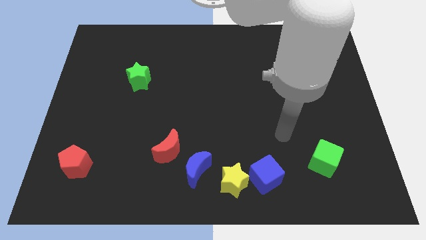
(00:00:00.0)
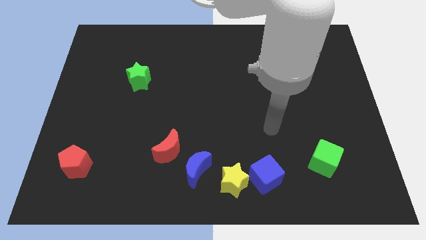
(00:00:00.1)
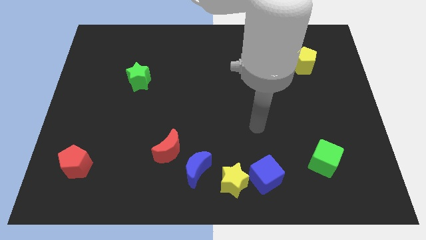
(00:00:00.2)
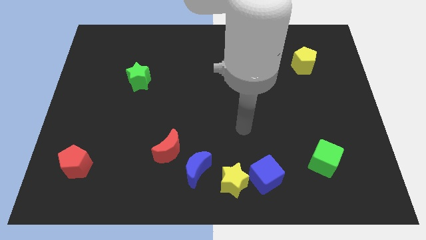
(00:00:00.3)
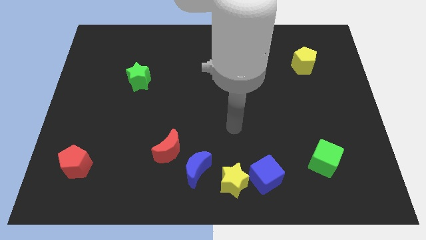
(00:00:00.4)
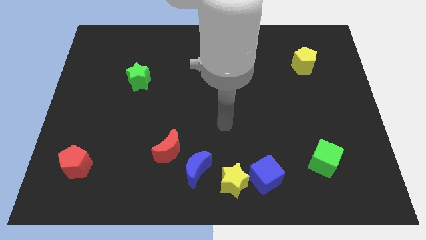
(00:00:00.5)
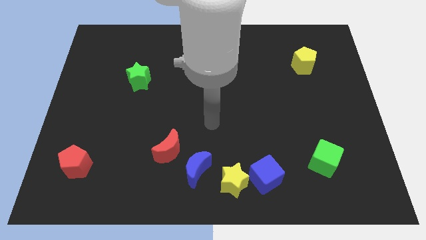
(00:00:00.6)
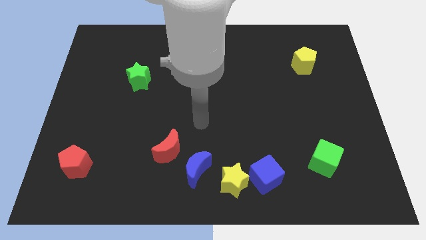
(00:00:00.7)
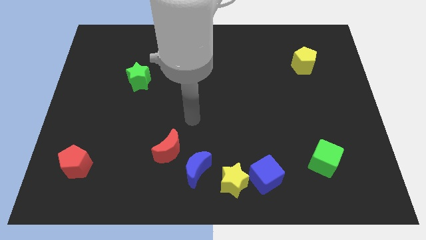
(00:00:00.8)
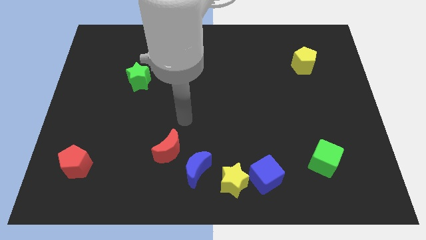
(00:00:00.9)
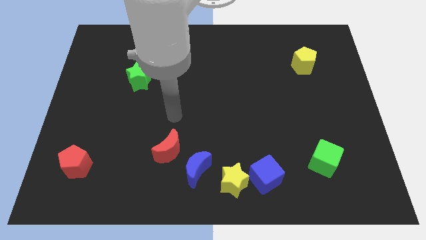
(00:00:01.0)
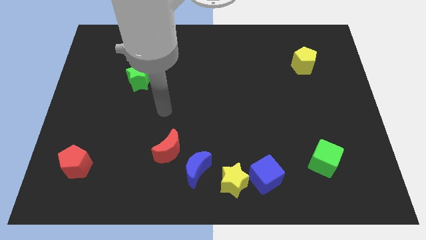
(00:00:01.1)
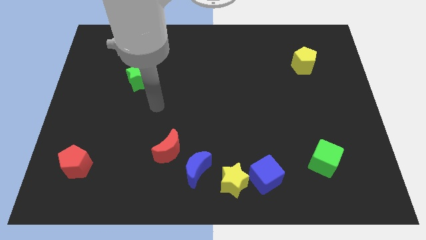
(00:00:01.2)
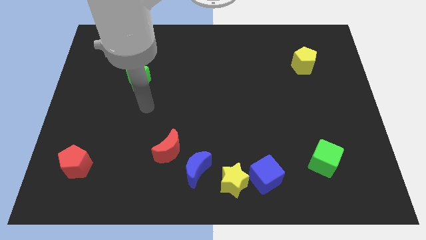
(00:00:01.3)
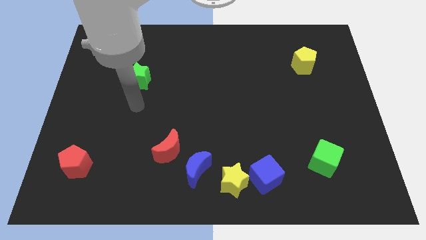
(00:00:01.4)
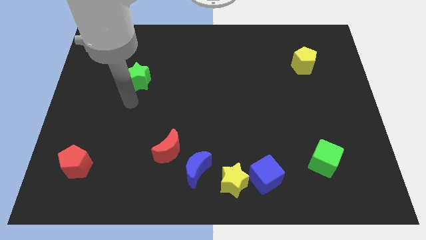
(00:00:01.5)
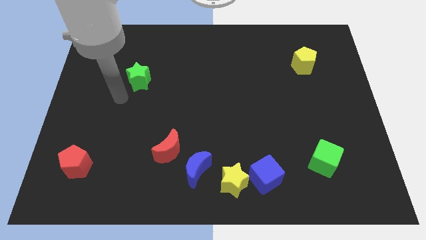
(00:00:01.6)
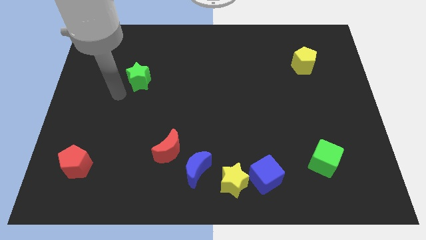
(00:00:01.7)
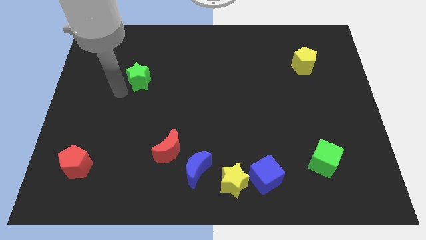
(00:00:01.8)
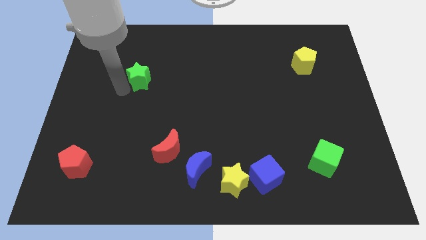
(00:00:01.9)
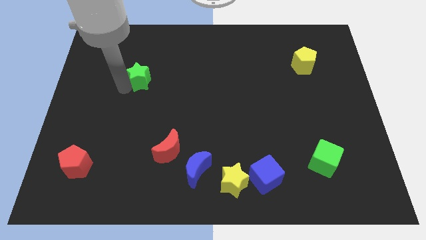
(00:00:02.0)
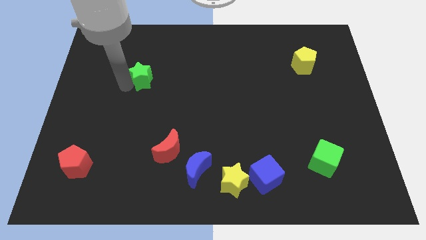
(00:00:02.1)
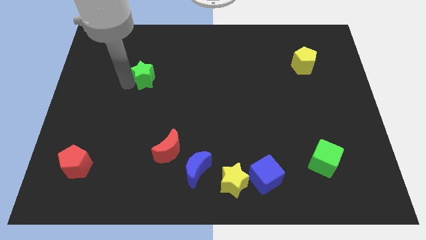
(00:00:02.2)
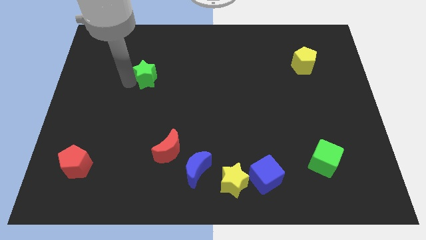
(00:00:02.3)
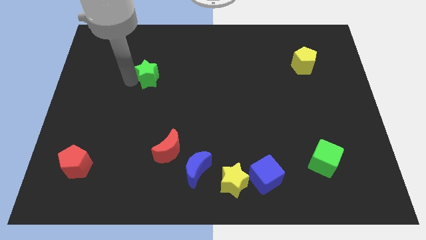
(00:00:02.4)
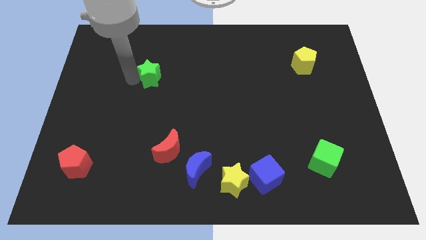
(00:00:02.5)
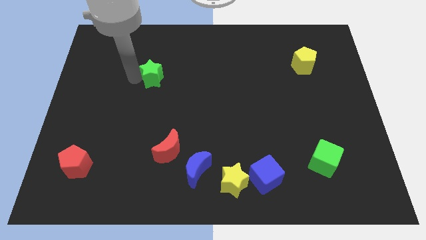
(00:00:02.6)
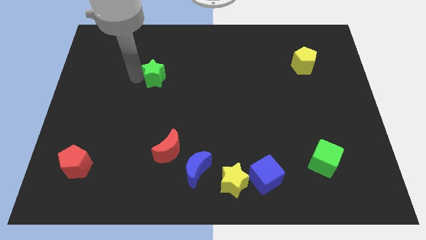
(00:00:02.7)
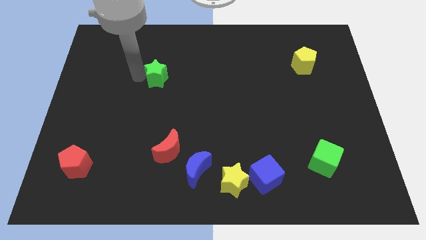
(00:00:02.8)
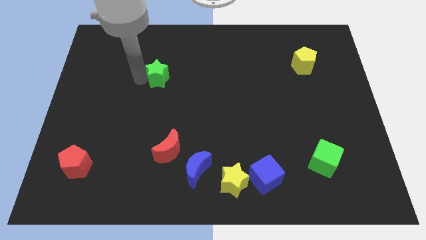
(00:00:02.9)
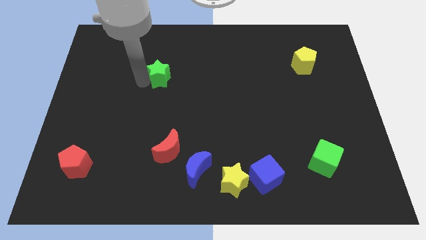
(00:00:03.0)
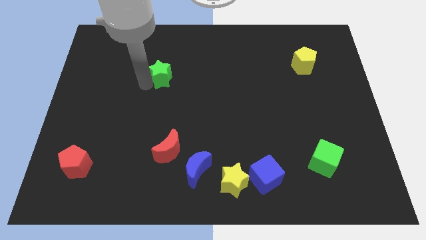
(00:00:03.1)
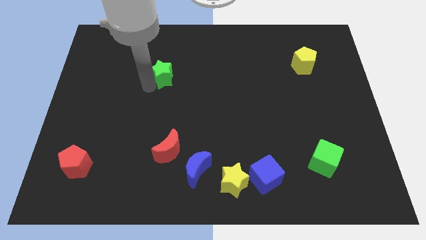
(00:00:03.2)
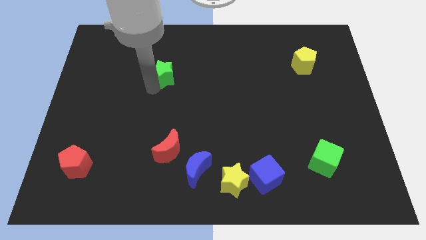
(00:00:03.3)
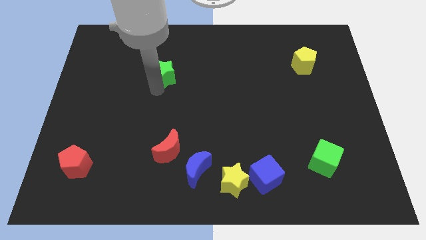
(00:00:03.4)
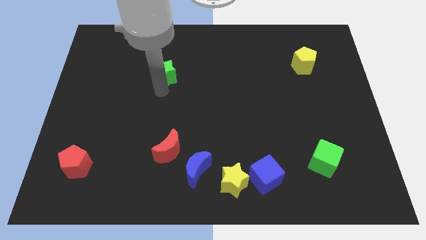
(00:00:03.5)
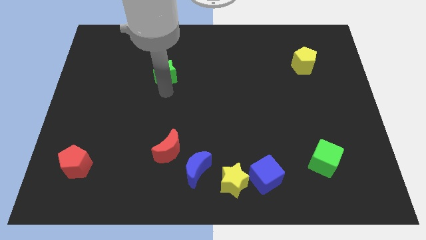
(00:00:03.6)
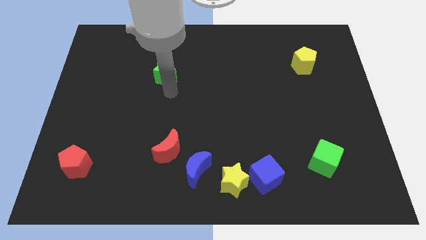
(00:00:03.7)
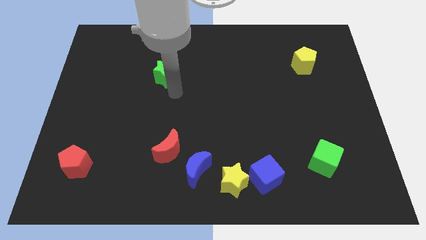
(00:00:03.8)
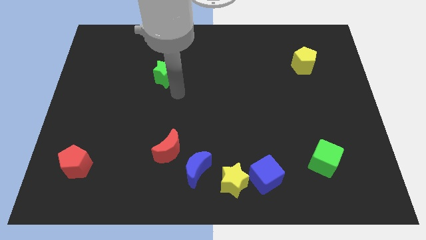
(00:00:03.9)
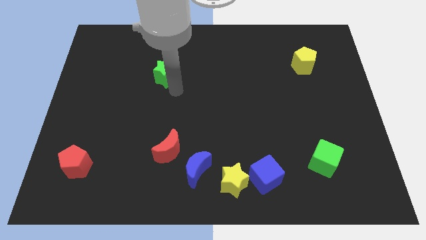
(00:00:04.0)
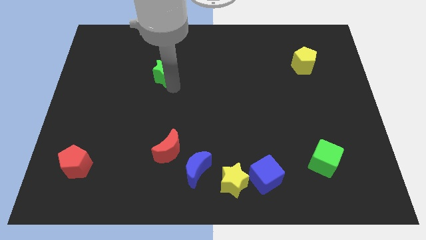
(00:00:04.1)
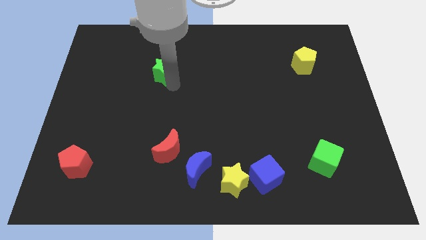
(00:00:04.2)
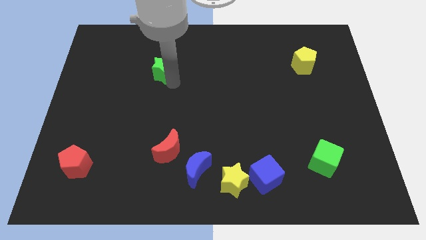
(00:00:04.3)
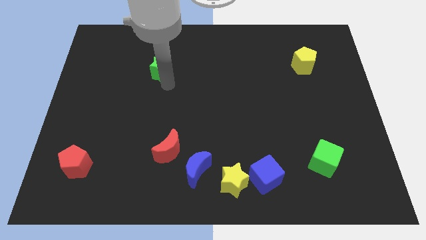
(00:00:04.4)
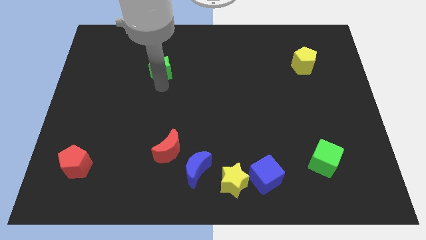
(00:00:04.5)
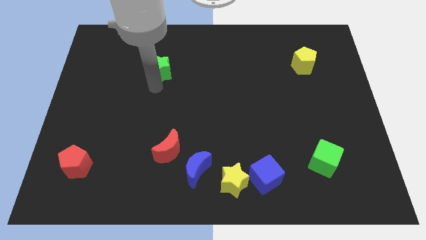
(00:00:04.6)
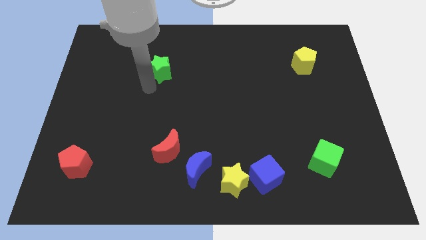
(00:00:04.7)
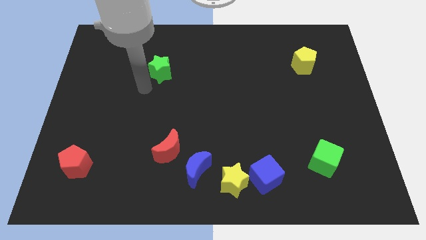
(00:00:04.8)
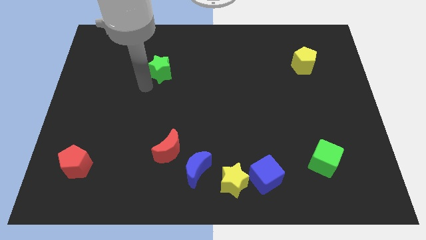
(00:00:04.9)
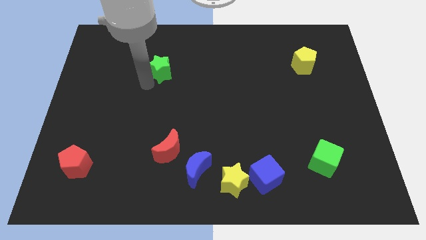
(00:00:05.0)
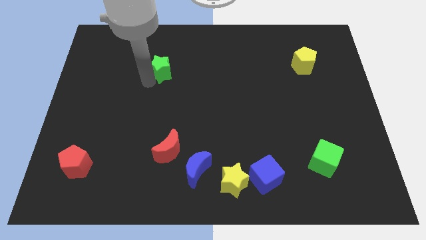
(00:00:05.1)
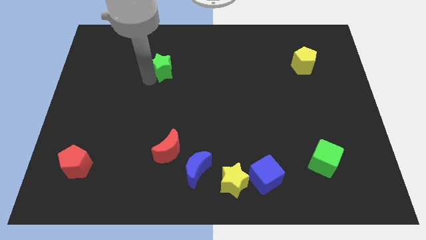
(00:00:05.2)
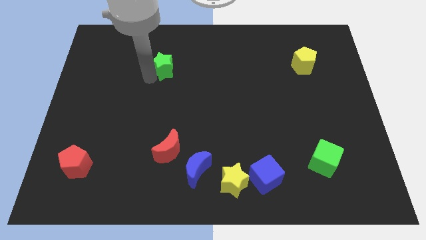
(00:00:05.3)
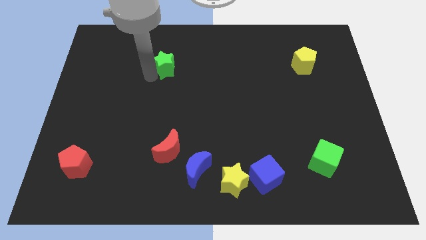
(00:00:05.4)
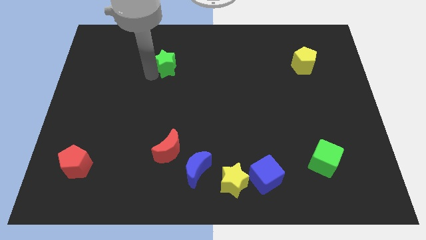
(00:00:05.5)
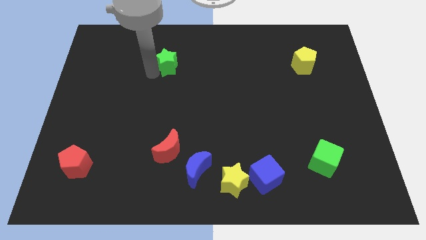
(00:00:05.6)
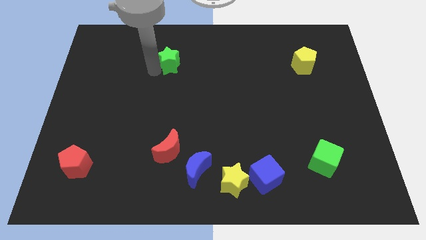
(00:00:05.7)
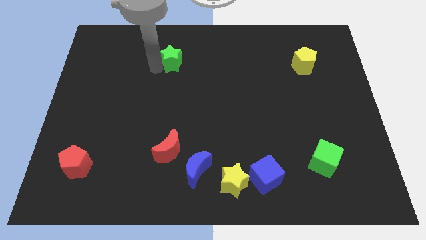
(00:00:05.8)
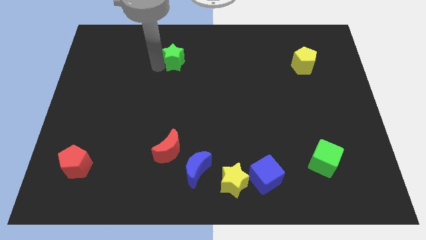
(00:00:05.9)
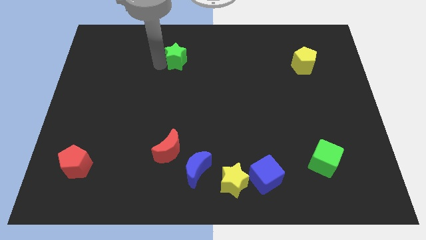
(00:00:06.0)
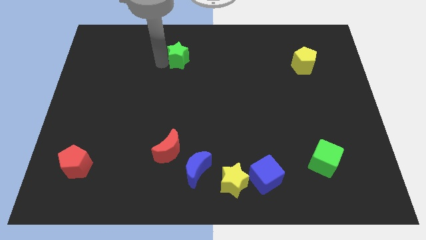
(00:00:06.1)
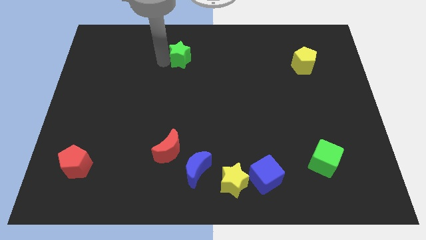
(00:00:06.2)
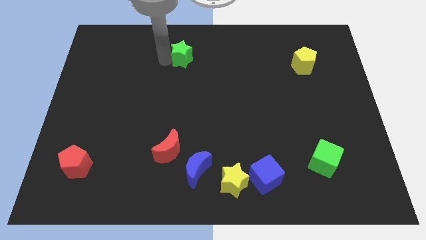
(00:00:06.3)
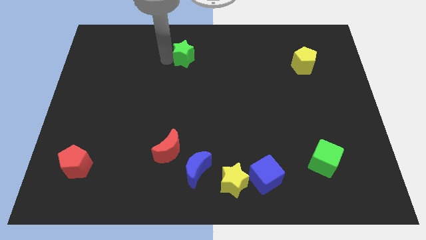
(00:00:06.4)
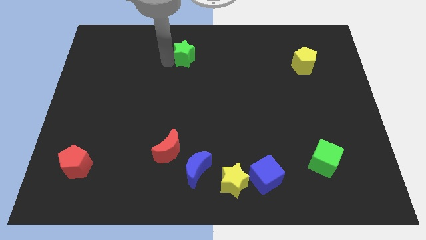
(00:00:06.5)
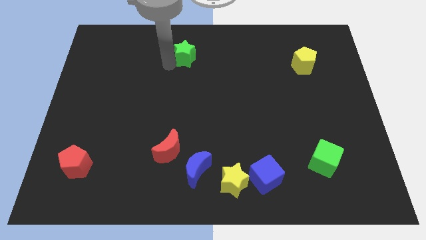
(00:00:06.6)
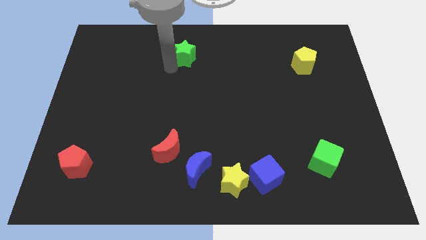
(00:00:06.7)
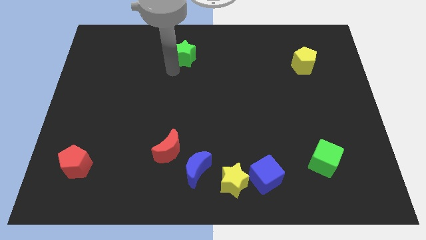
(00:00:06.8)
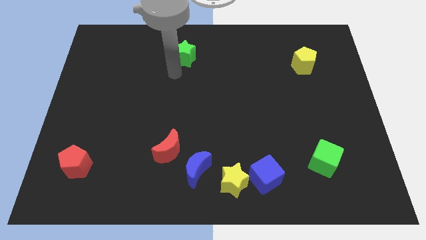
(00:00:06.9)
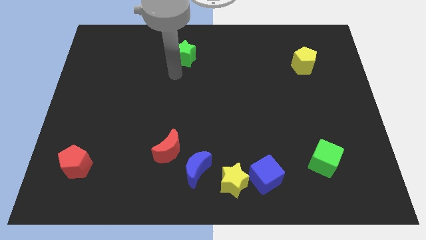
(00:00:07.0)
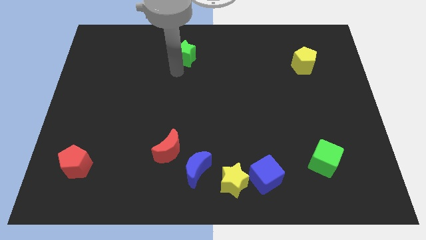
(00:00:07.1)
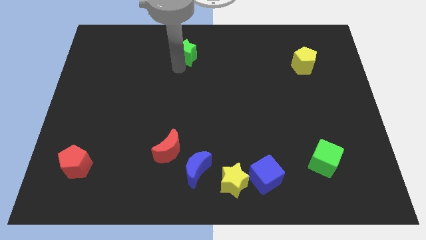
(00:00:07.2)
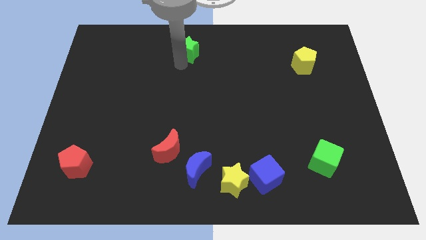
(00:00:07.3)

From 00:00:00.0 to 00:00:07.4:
slide the green star to the top side
